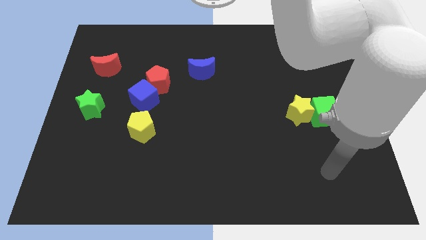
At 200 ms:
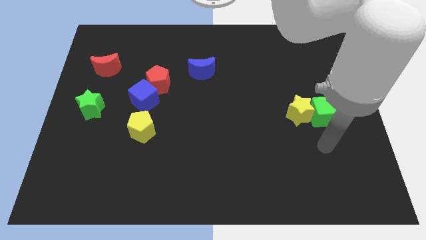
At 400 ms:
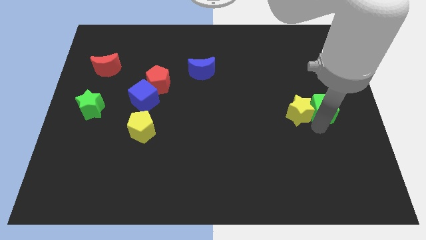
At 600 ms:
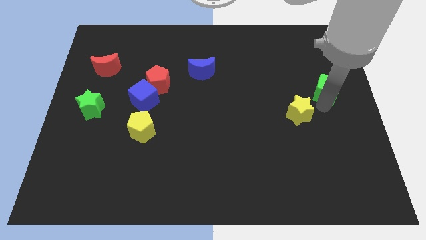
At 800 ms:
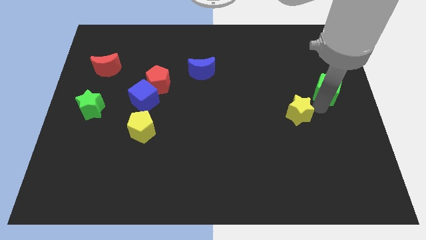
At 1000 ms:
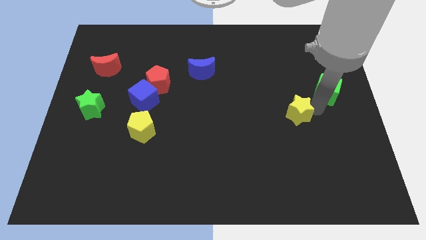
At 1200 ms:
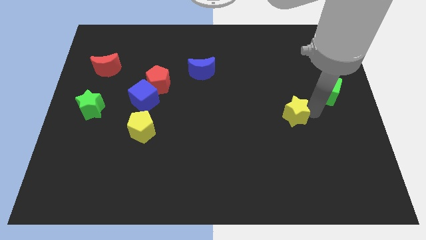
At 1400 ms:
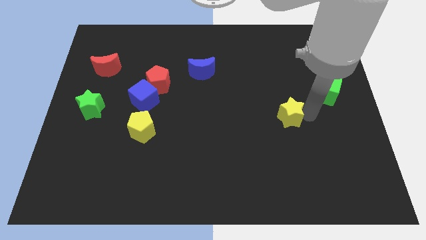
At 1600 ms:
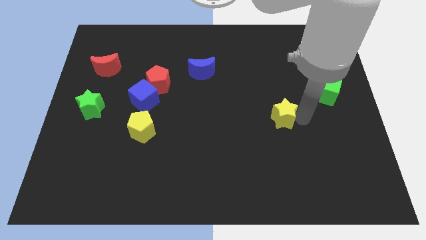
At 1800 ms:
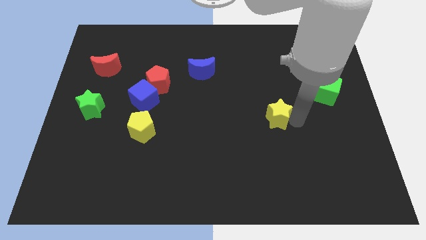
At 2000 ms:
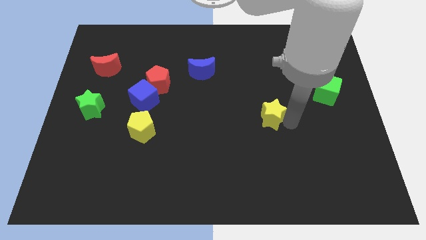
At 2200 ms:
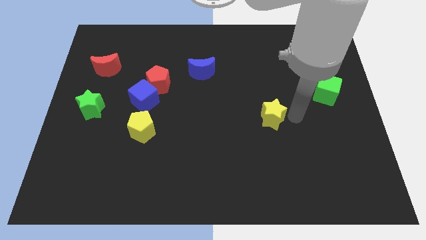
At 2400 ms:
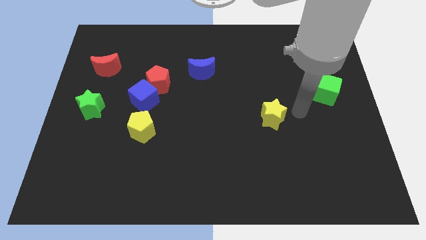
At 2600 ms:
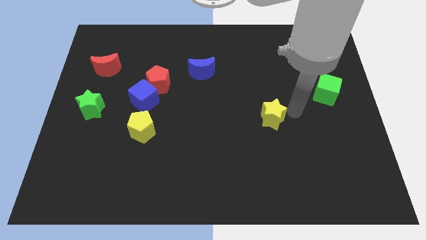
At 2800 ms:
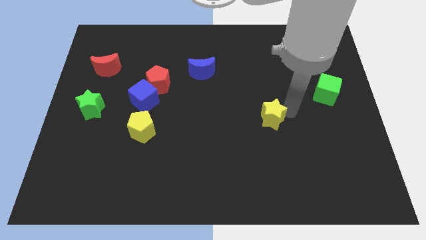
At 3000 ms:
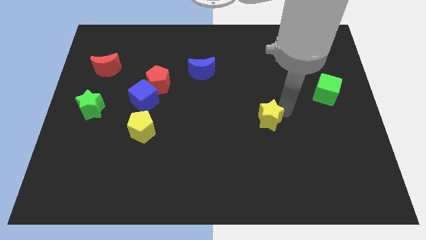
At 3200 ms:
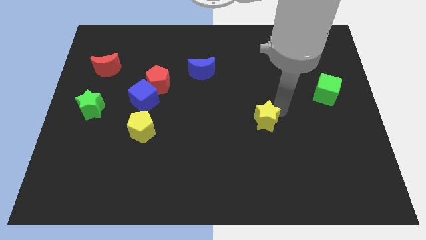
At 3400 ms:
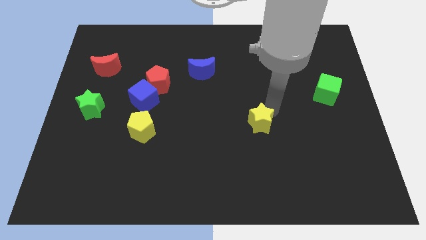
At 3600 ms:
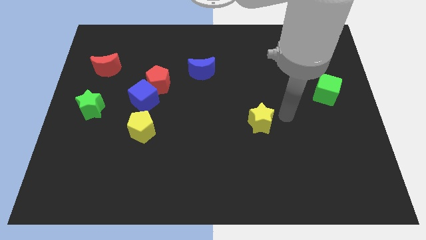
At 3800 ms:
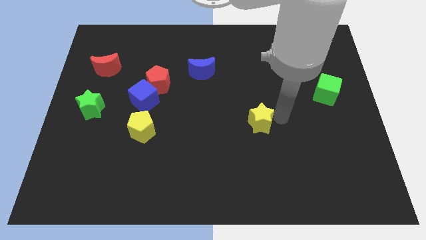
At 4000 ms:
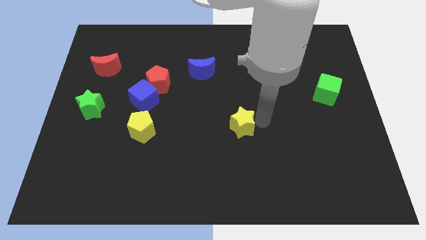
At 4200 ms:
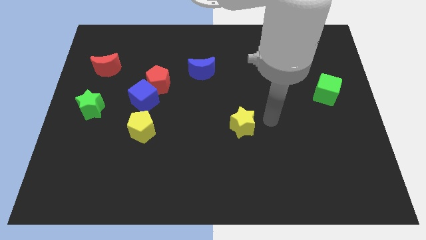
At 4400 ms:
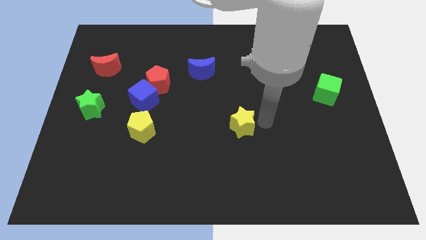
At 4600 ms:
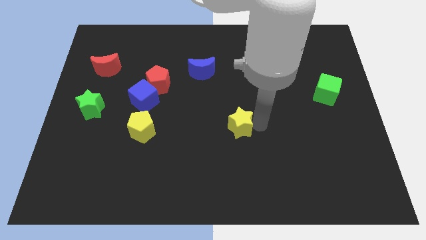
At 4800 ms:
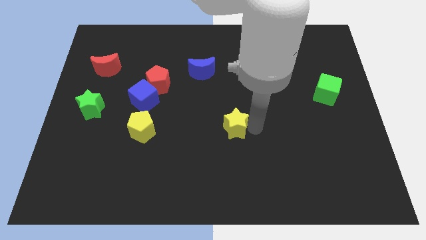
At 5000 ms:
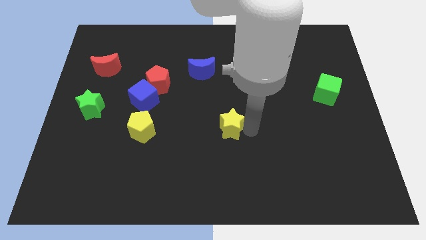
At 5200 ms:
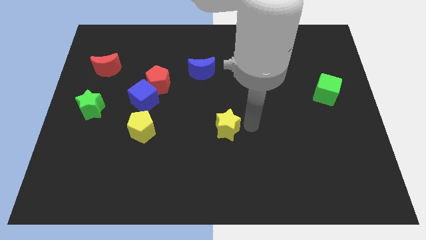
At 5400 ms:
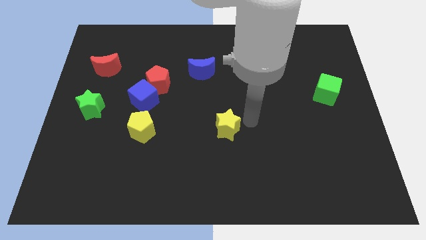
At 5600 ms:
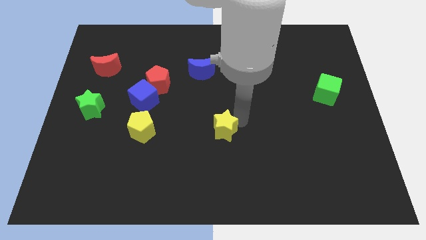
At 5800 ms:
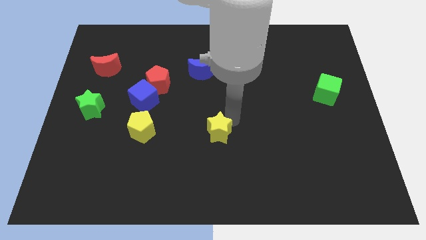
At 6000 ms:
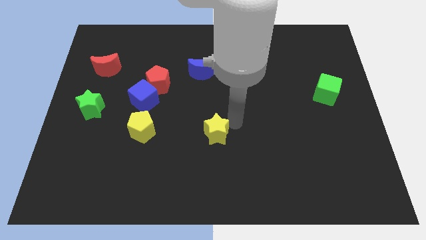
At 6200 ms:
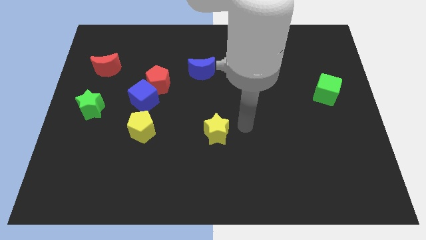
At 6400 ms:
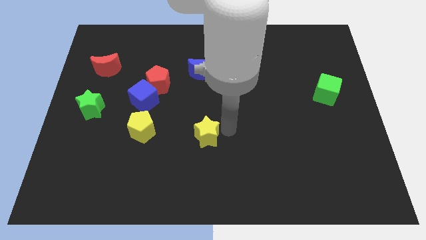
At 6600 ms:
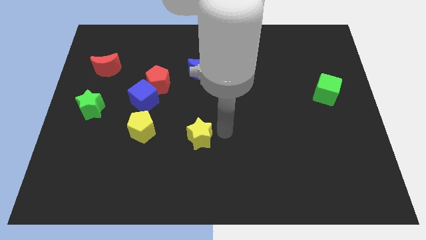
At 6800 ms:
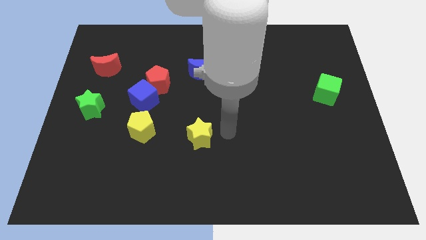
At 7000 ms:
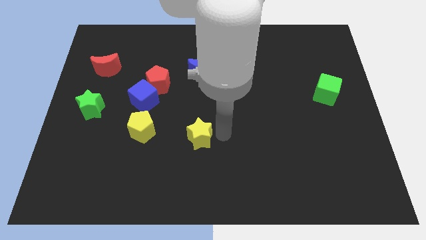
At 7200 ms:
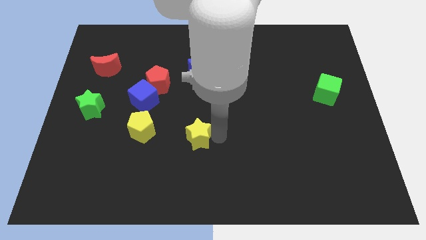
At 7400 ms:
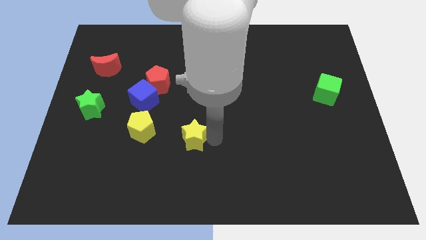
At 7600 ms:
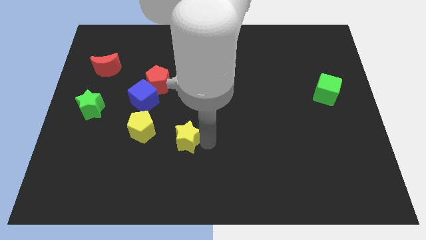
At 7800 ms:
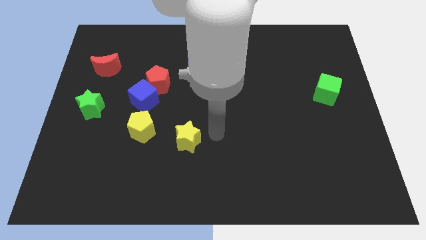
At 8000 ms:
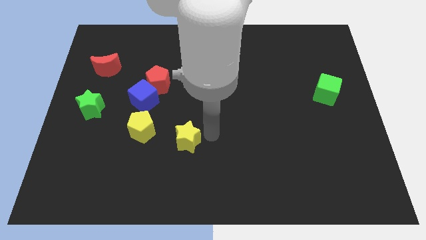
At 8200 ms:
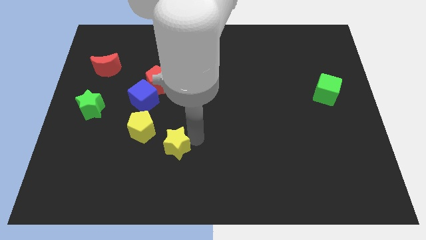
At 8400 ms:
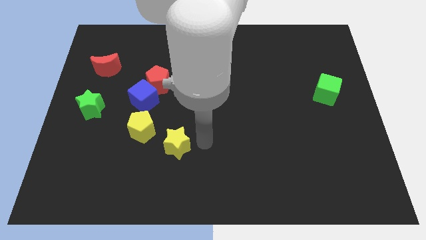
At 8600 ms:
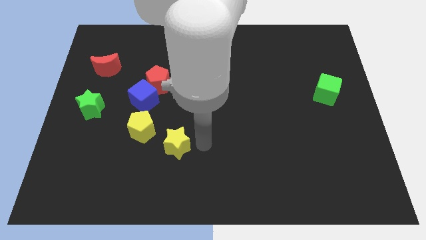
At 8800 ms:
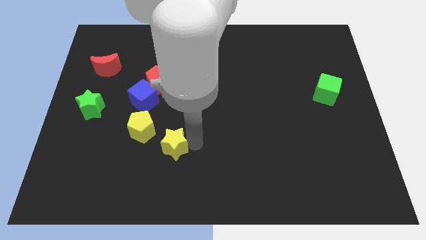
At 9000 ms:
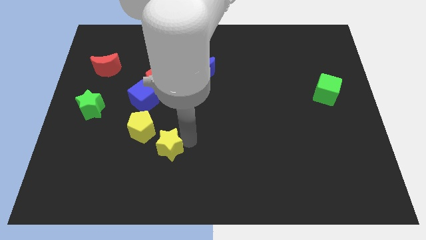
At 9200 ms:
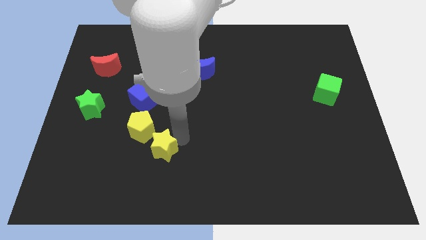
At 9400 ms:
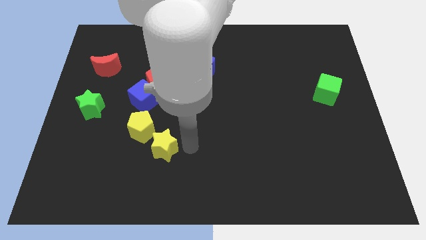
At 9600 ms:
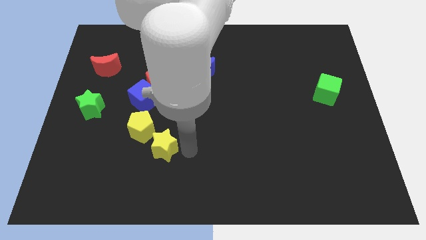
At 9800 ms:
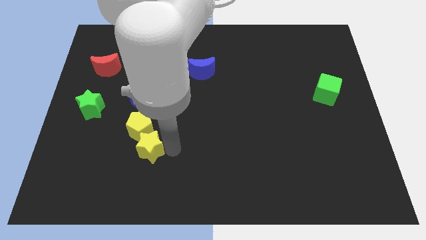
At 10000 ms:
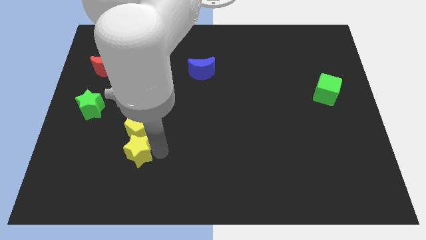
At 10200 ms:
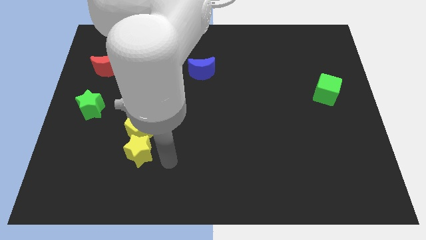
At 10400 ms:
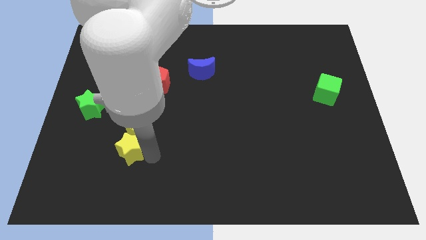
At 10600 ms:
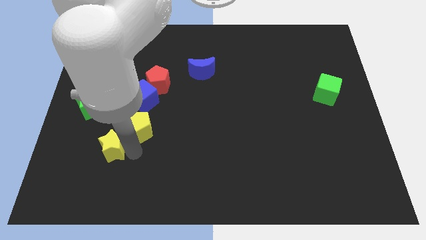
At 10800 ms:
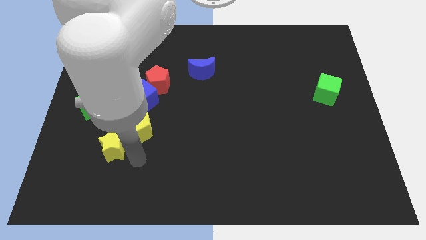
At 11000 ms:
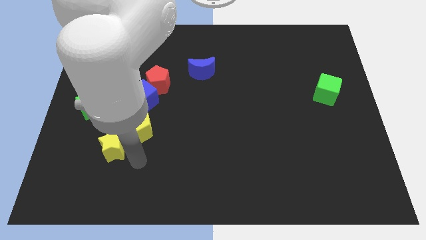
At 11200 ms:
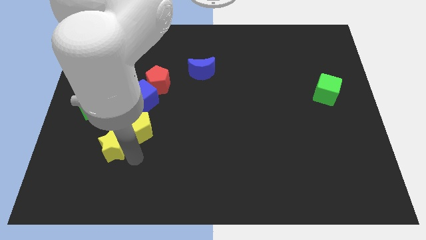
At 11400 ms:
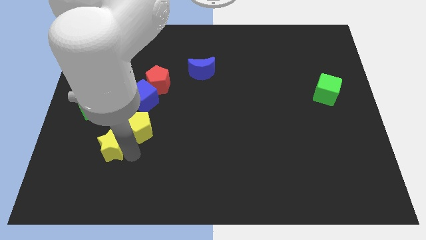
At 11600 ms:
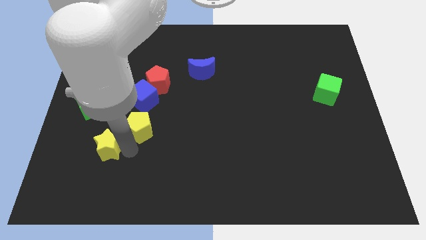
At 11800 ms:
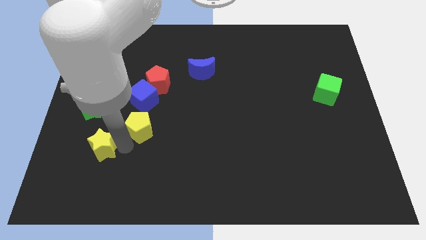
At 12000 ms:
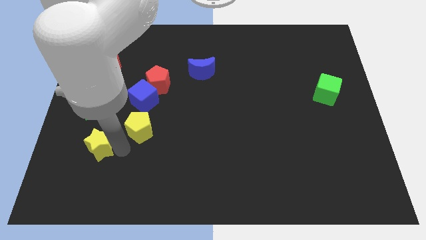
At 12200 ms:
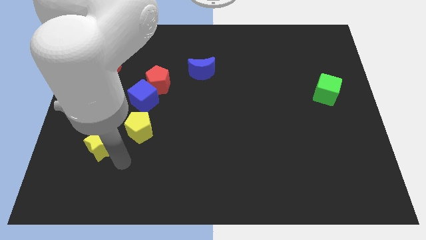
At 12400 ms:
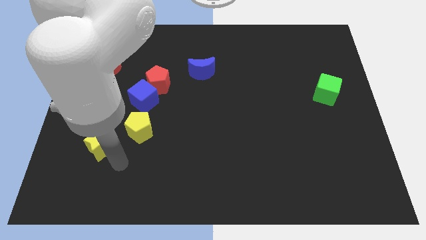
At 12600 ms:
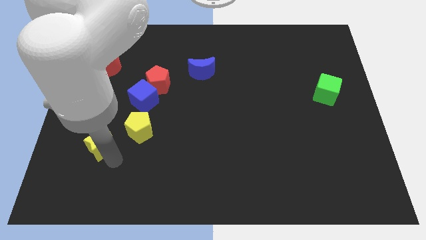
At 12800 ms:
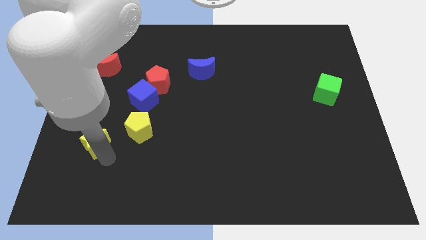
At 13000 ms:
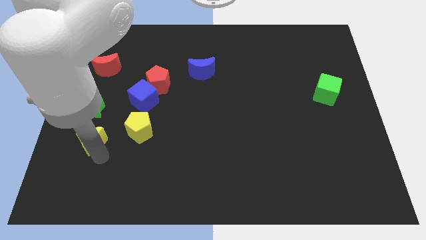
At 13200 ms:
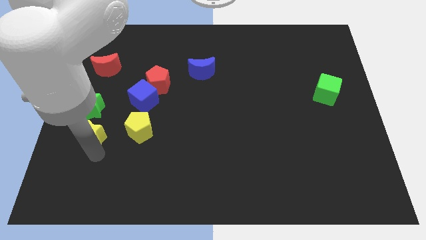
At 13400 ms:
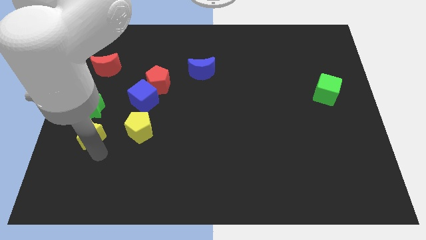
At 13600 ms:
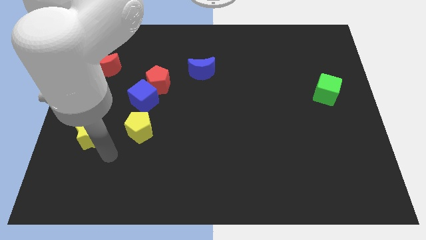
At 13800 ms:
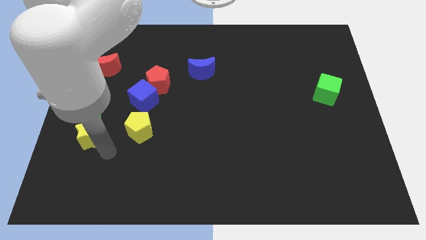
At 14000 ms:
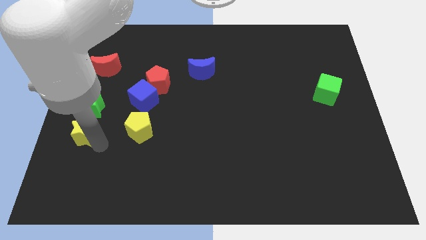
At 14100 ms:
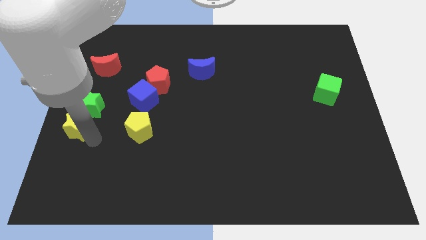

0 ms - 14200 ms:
push the yellow star to the left side of the board

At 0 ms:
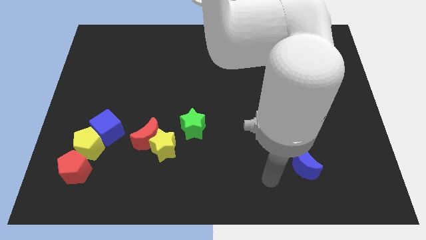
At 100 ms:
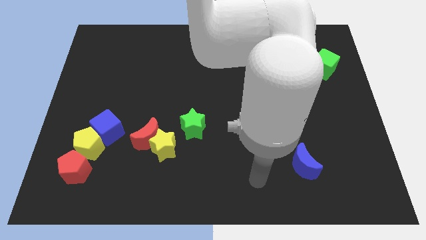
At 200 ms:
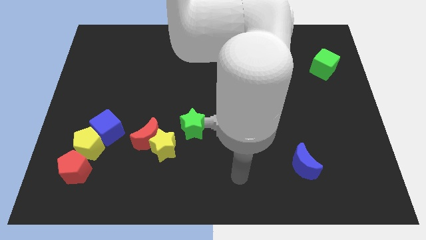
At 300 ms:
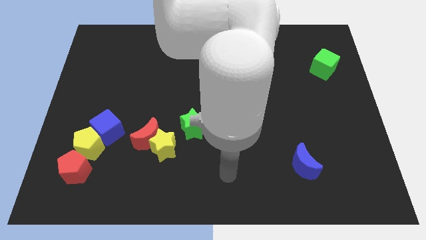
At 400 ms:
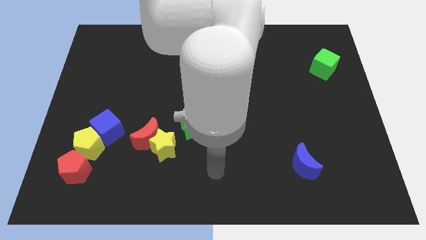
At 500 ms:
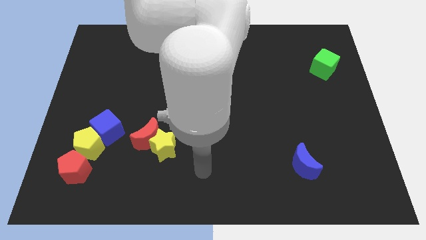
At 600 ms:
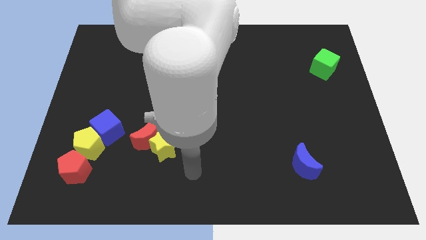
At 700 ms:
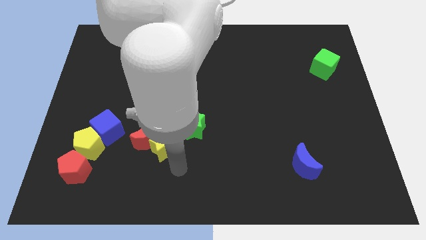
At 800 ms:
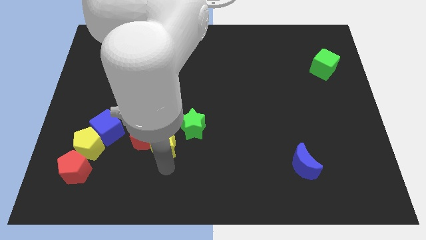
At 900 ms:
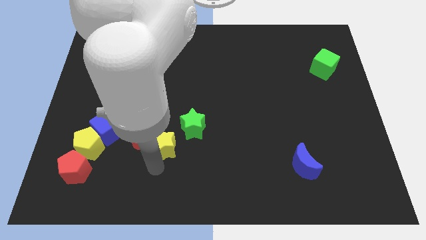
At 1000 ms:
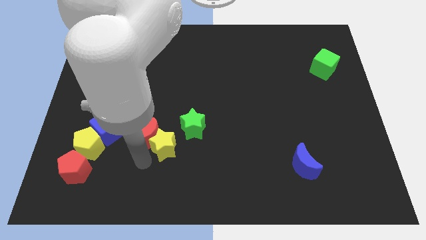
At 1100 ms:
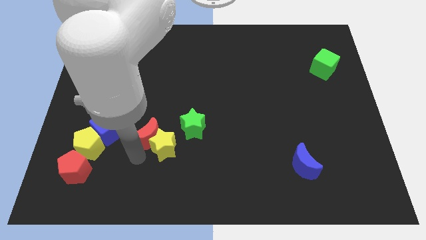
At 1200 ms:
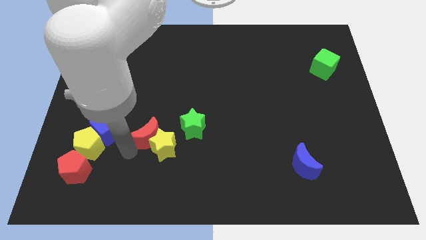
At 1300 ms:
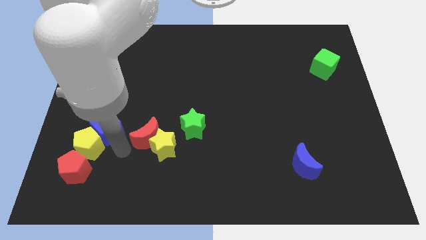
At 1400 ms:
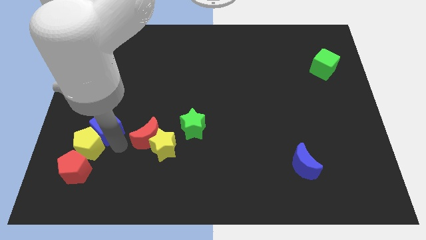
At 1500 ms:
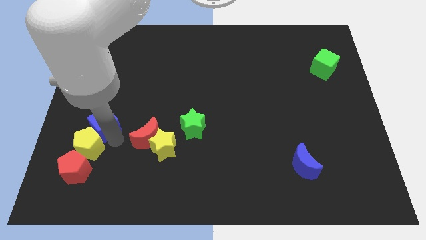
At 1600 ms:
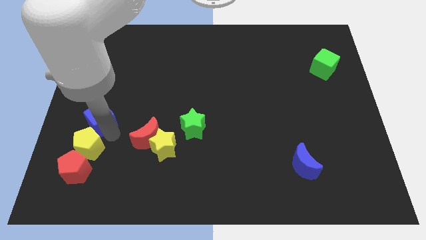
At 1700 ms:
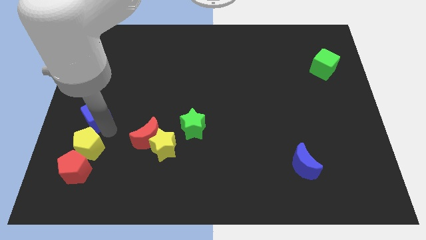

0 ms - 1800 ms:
put the blue cube to the left side
